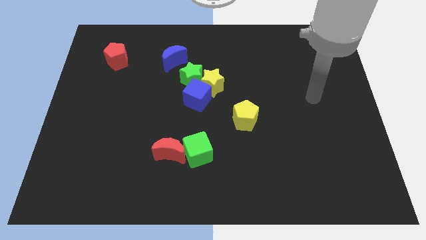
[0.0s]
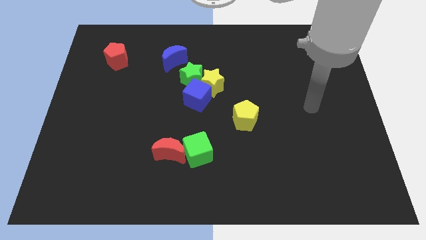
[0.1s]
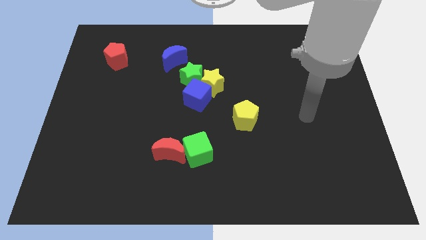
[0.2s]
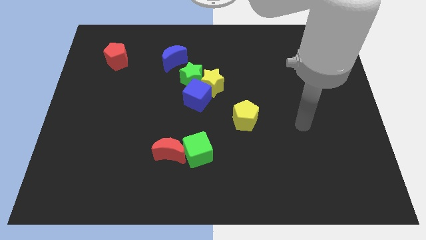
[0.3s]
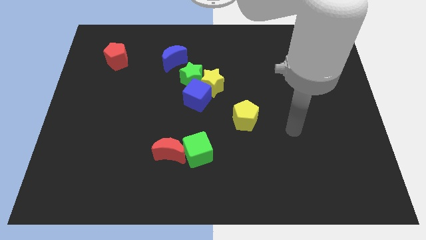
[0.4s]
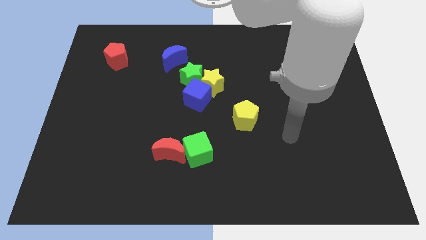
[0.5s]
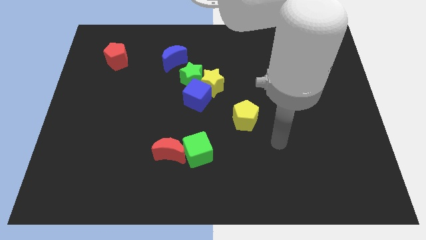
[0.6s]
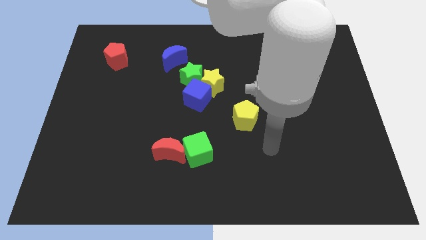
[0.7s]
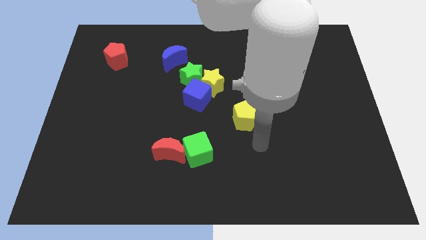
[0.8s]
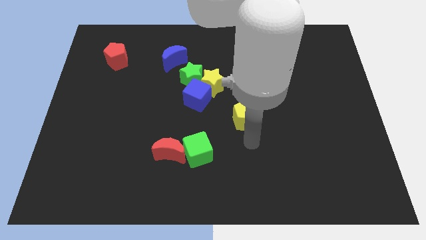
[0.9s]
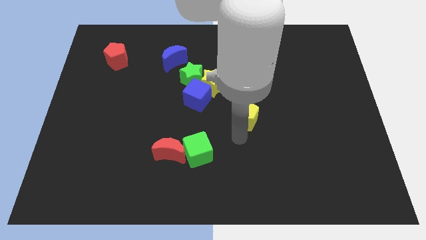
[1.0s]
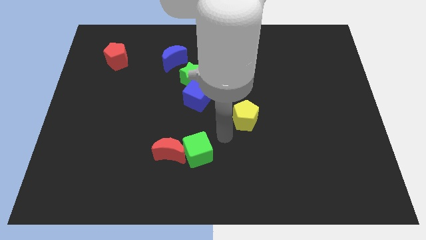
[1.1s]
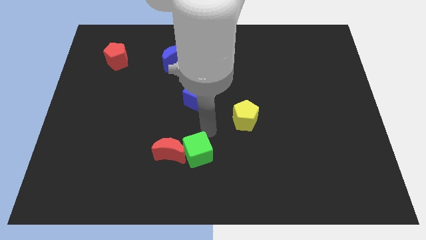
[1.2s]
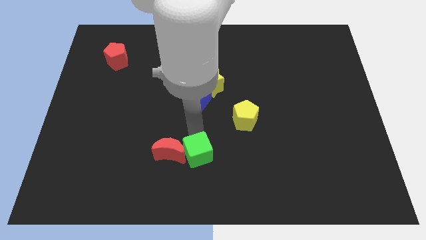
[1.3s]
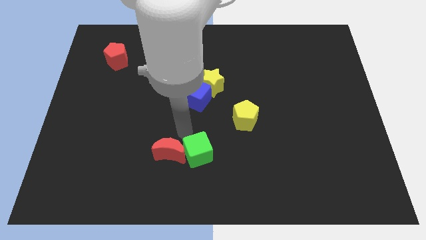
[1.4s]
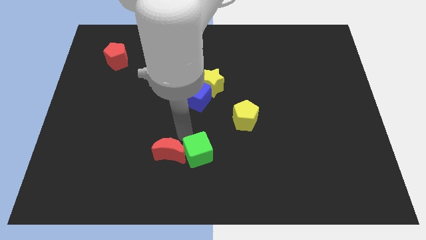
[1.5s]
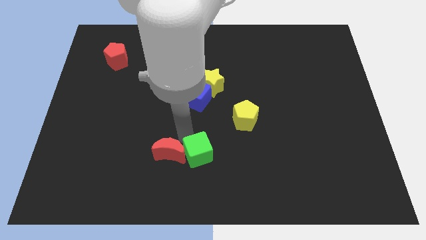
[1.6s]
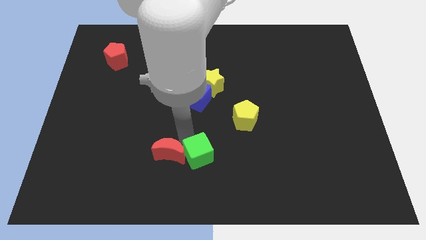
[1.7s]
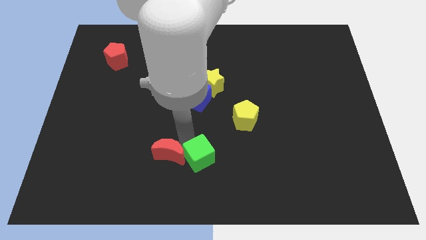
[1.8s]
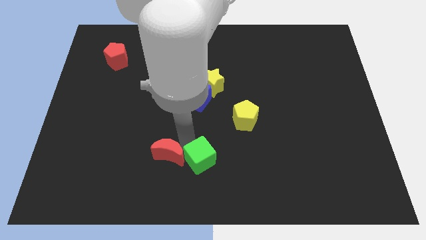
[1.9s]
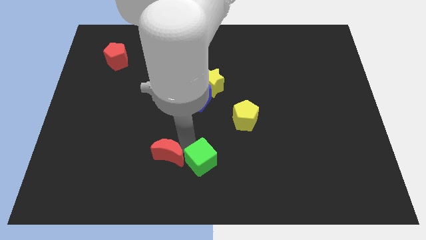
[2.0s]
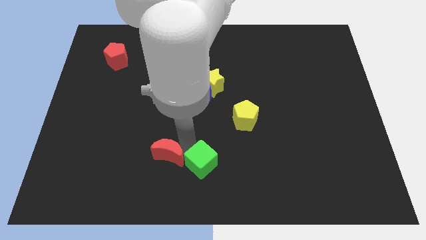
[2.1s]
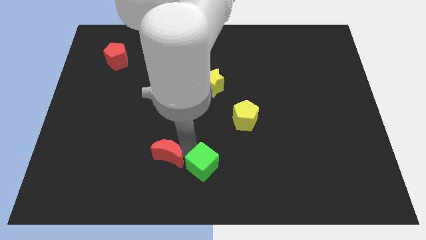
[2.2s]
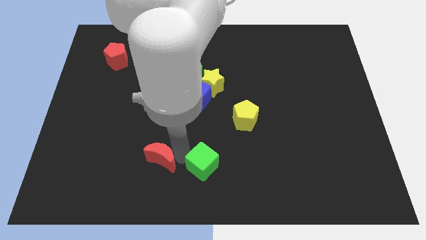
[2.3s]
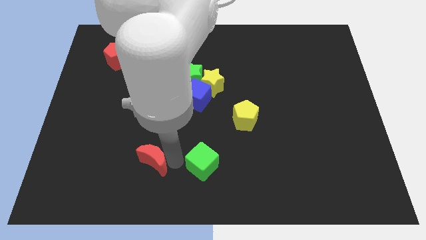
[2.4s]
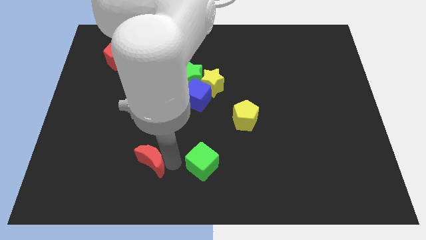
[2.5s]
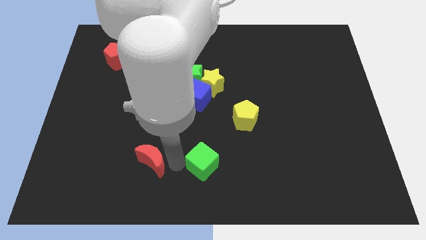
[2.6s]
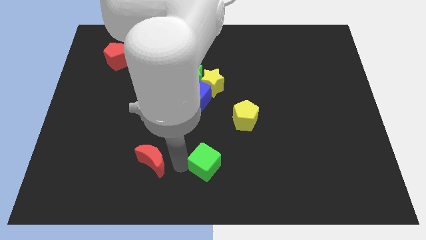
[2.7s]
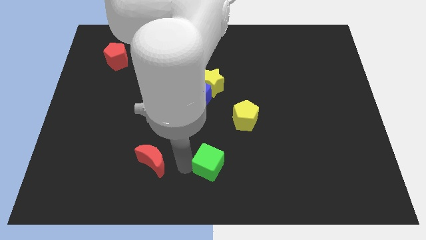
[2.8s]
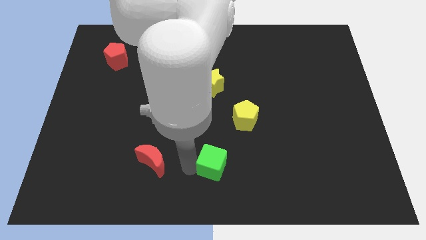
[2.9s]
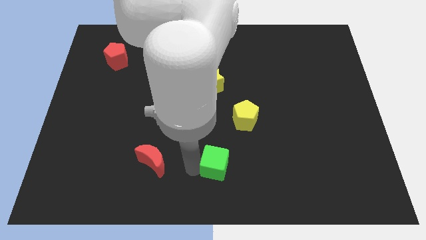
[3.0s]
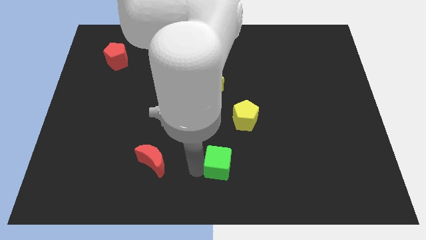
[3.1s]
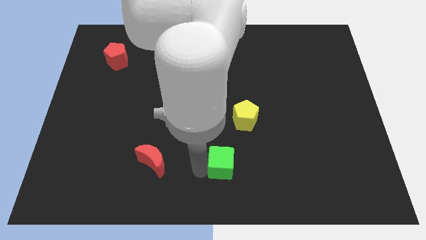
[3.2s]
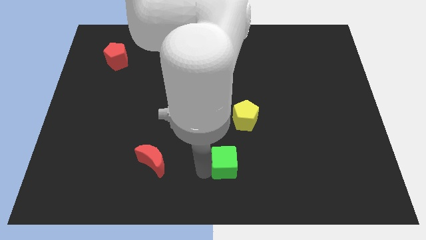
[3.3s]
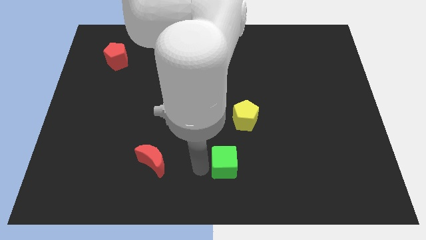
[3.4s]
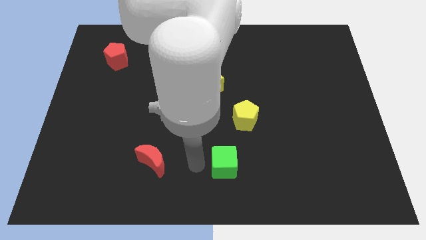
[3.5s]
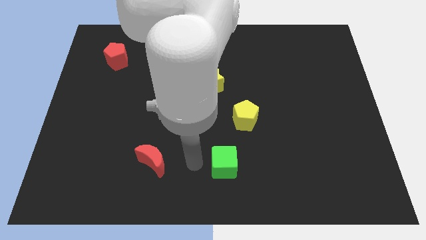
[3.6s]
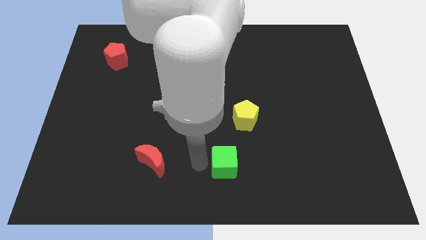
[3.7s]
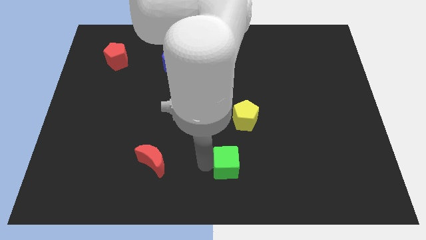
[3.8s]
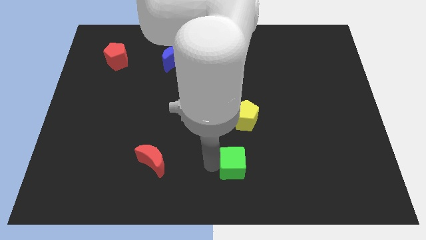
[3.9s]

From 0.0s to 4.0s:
move the green cube a bit to the right

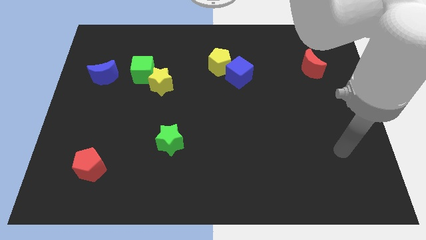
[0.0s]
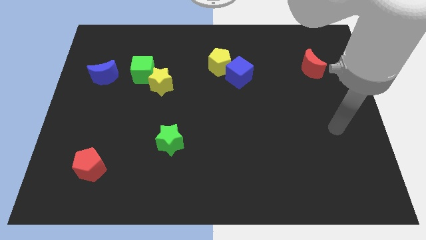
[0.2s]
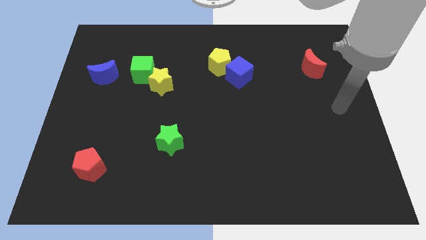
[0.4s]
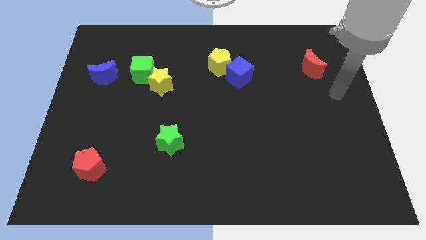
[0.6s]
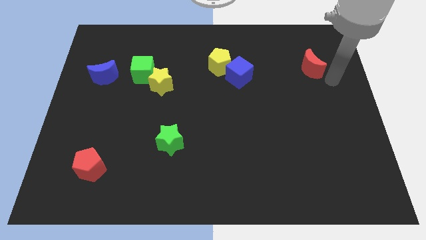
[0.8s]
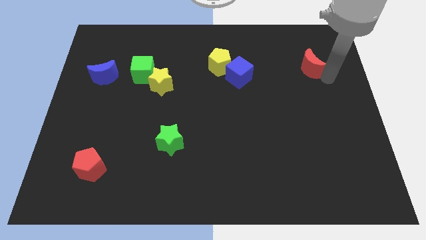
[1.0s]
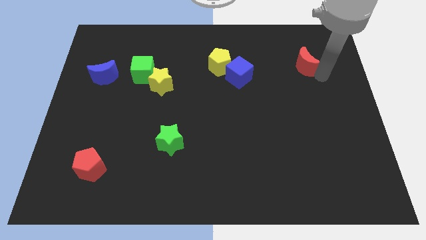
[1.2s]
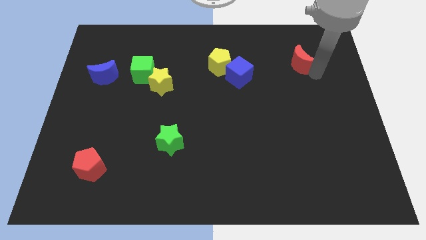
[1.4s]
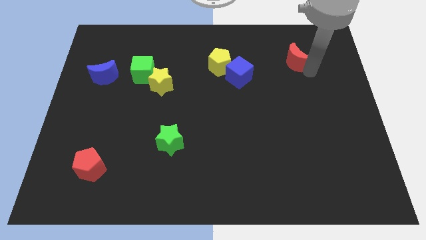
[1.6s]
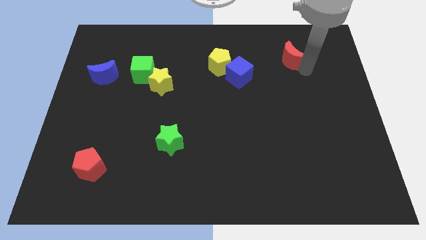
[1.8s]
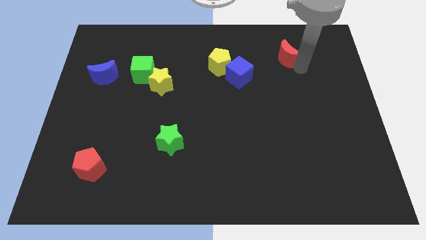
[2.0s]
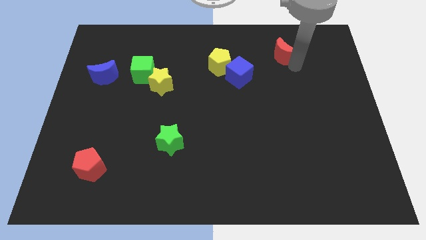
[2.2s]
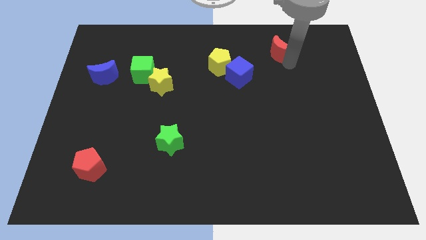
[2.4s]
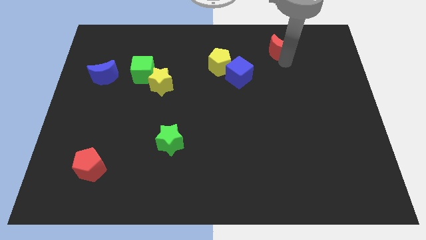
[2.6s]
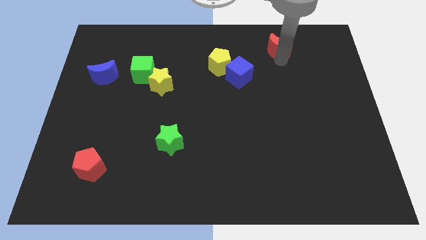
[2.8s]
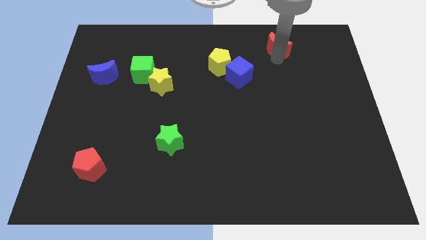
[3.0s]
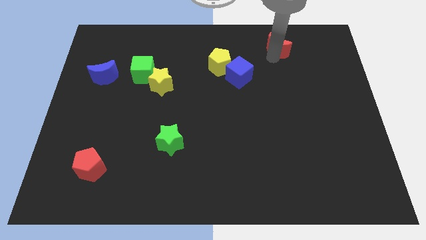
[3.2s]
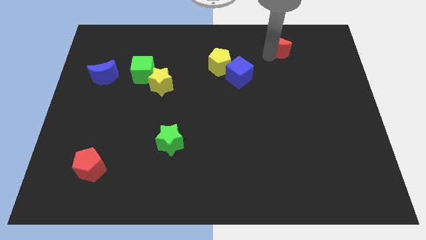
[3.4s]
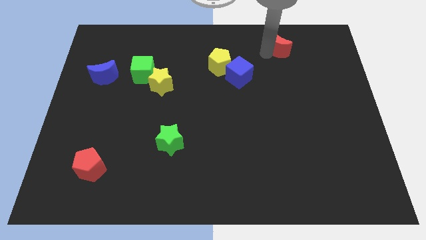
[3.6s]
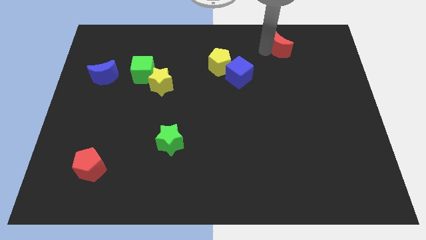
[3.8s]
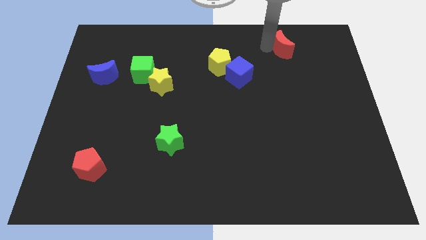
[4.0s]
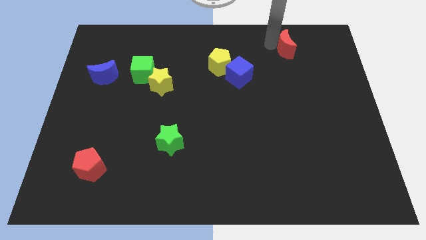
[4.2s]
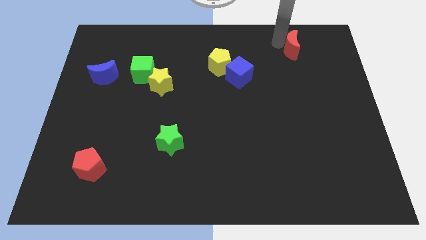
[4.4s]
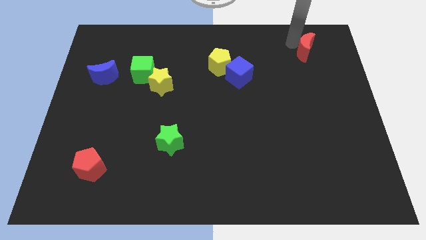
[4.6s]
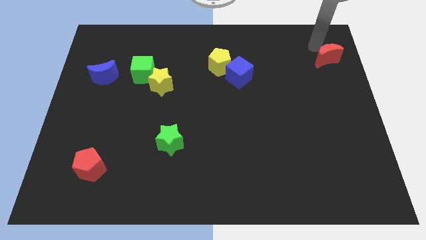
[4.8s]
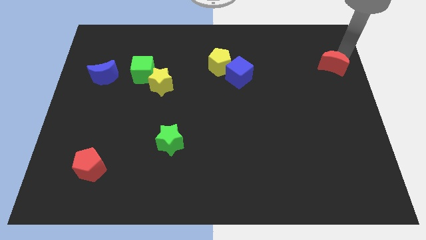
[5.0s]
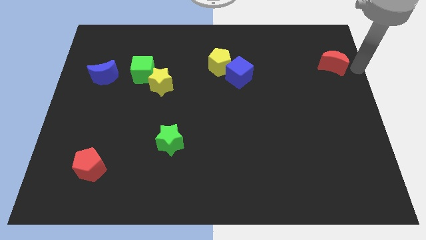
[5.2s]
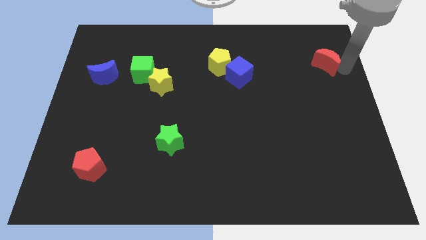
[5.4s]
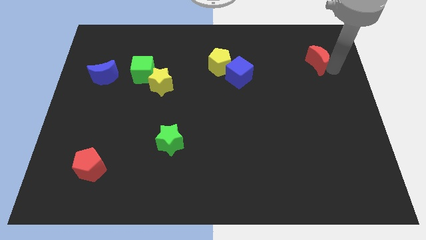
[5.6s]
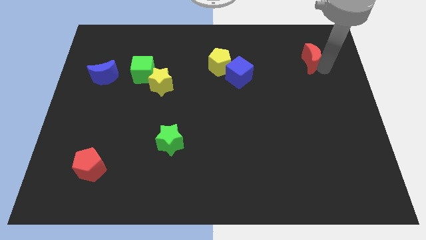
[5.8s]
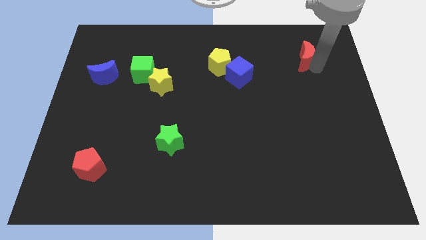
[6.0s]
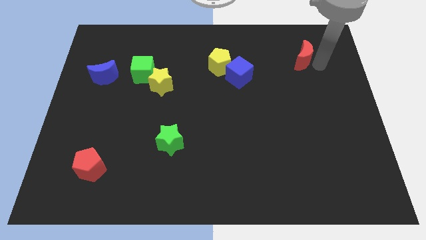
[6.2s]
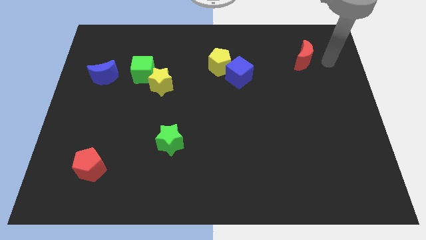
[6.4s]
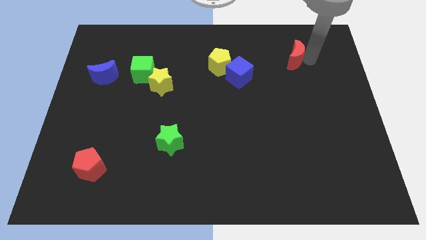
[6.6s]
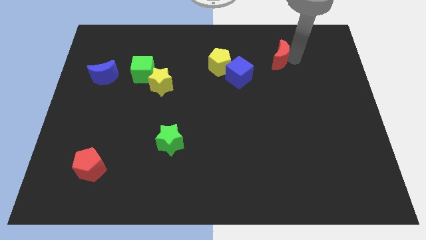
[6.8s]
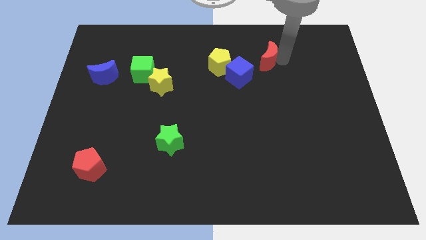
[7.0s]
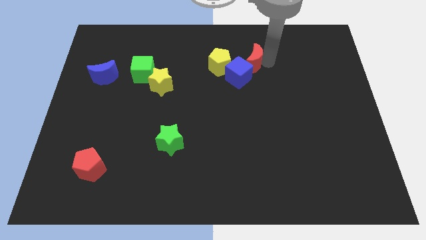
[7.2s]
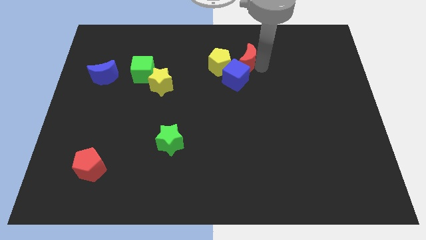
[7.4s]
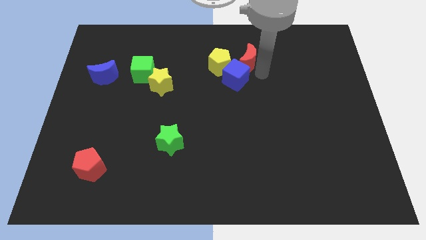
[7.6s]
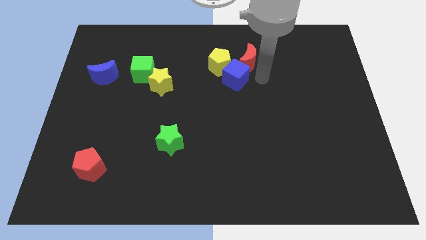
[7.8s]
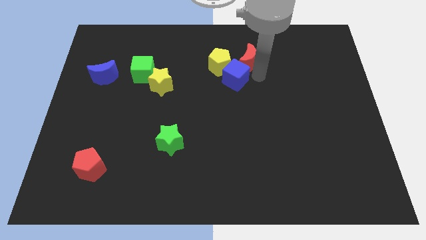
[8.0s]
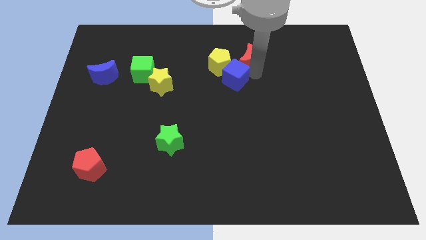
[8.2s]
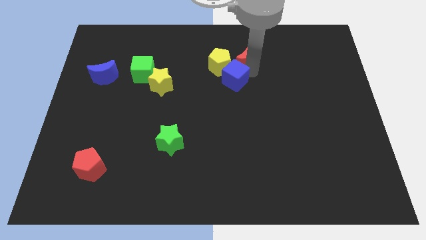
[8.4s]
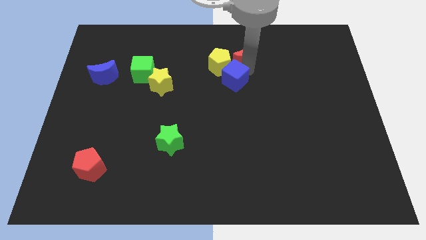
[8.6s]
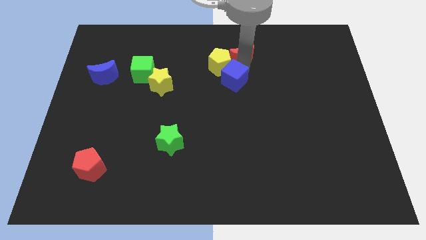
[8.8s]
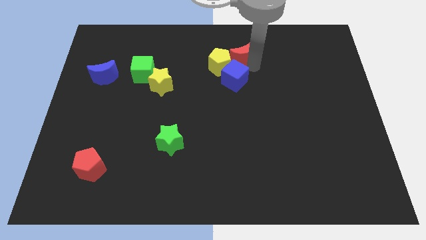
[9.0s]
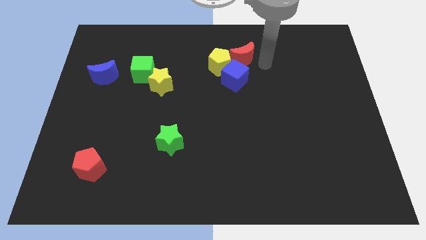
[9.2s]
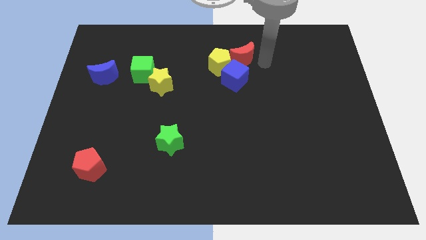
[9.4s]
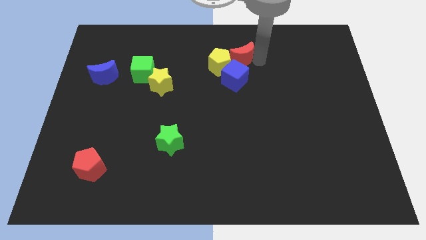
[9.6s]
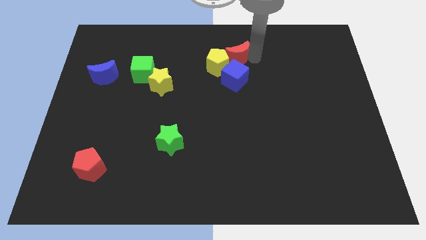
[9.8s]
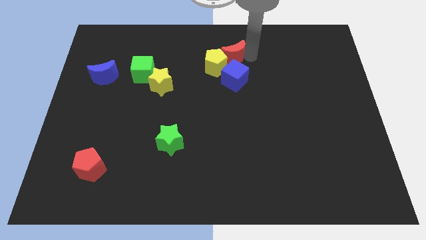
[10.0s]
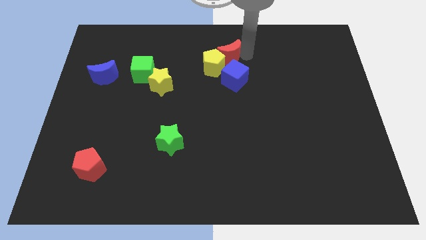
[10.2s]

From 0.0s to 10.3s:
move the red moon left
